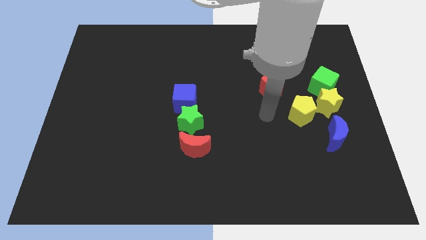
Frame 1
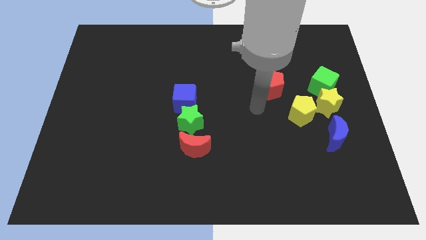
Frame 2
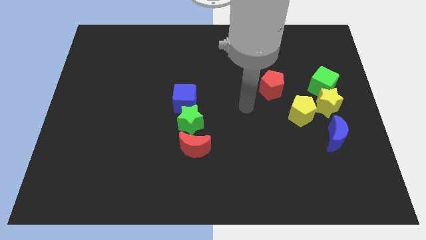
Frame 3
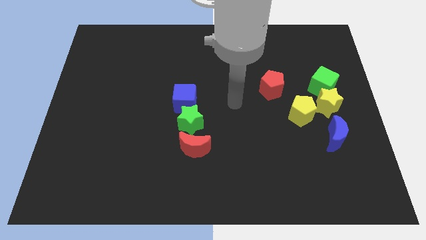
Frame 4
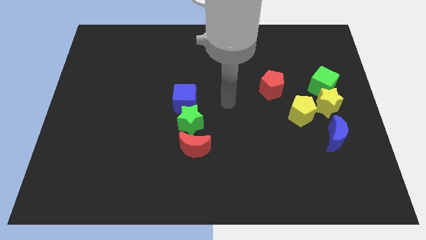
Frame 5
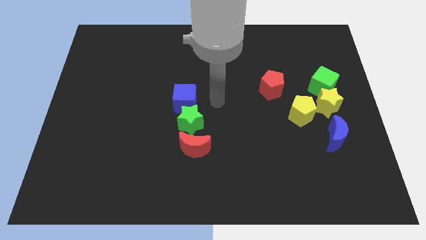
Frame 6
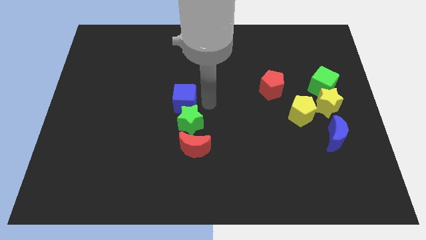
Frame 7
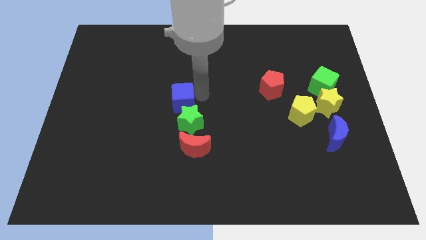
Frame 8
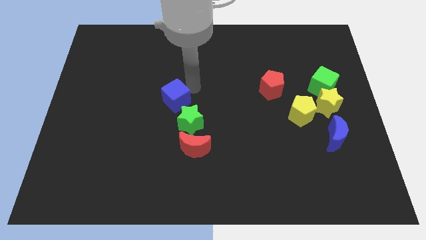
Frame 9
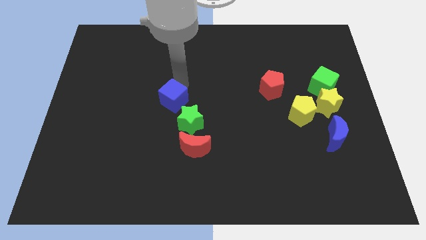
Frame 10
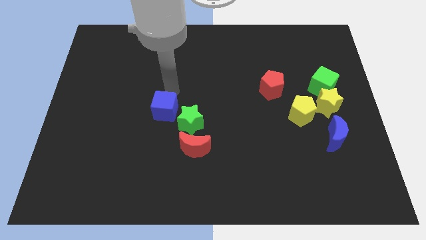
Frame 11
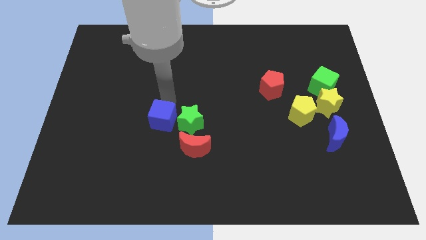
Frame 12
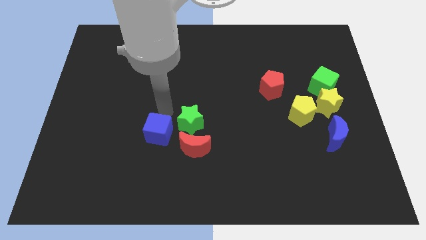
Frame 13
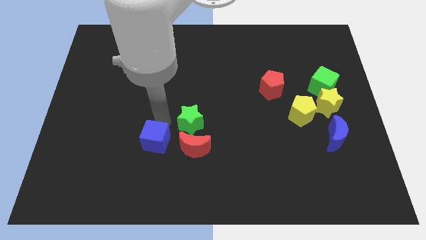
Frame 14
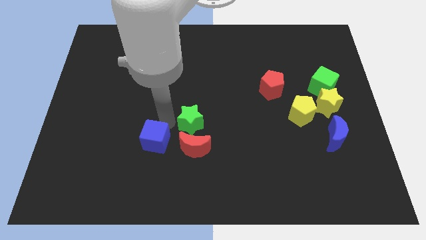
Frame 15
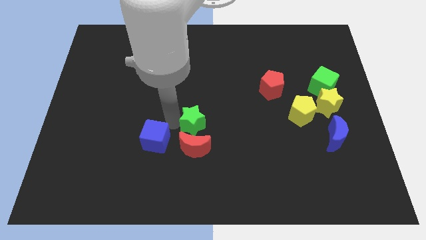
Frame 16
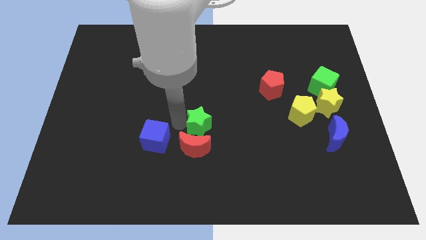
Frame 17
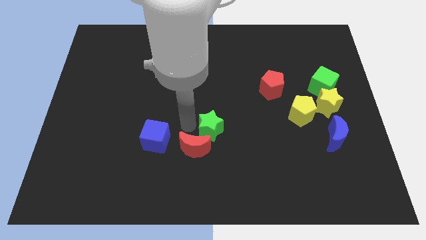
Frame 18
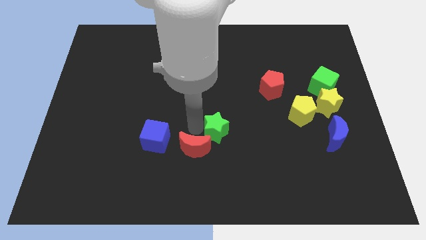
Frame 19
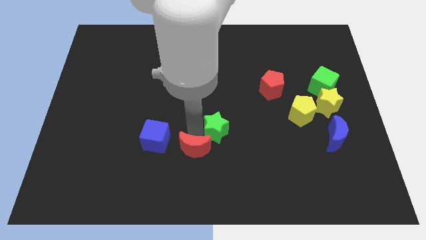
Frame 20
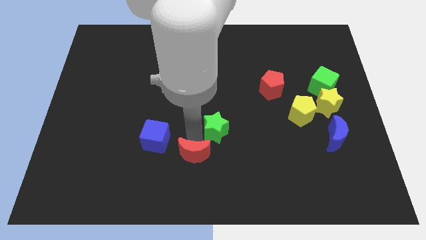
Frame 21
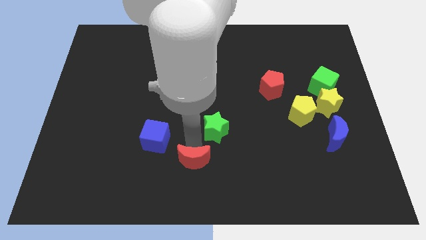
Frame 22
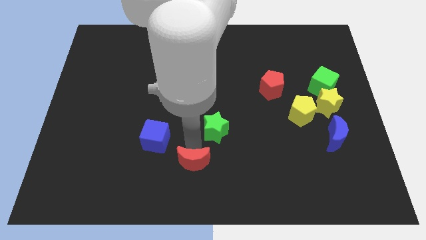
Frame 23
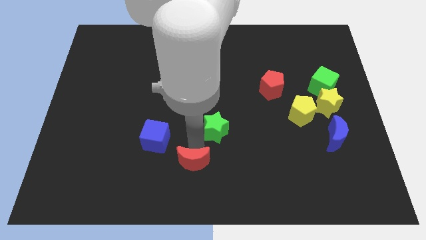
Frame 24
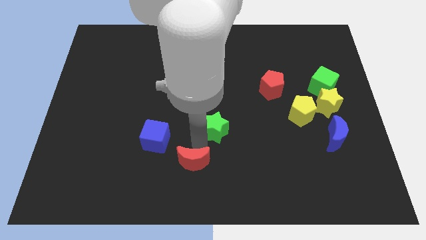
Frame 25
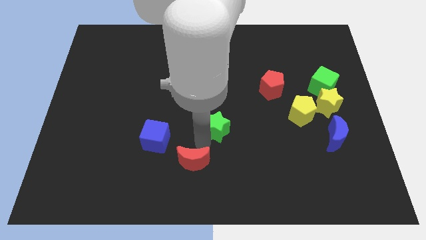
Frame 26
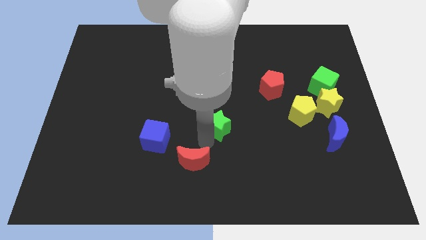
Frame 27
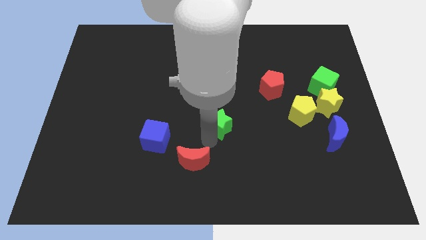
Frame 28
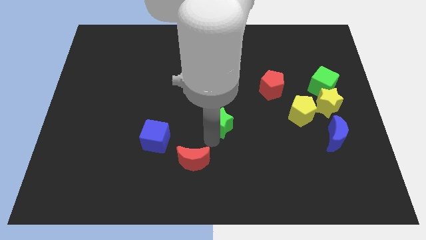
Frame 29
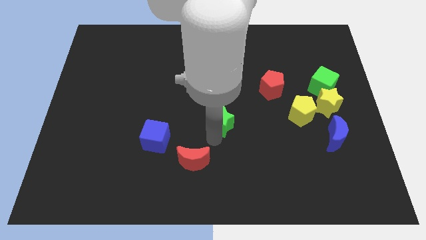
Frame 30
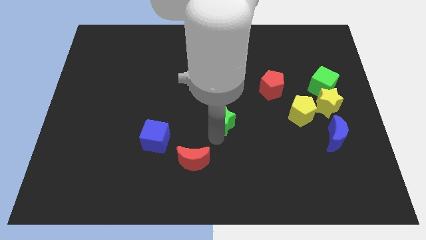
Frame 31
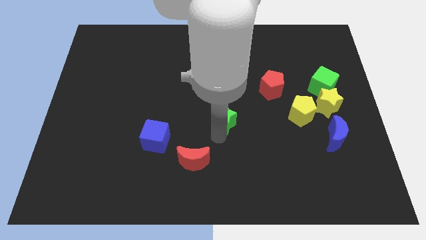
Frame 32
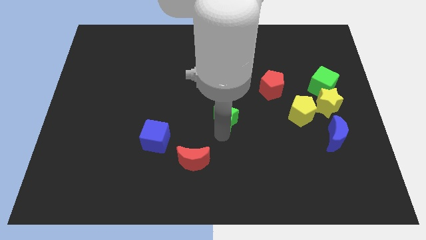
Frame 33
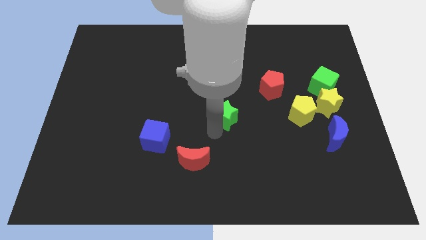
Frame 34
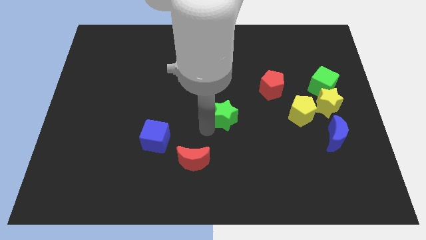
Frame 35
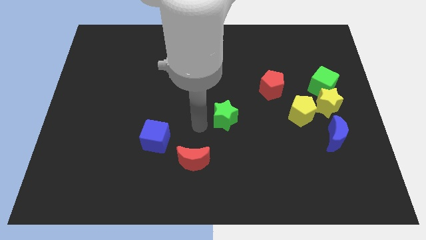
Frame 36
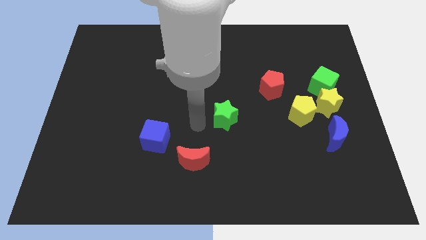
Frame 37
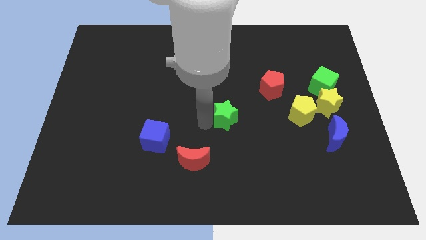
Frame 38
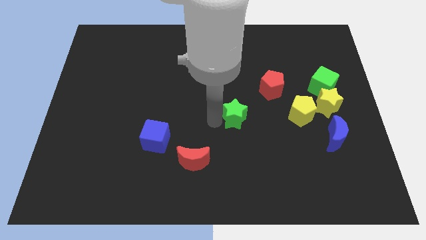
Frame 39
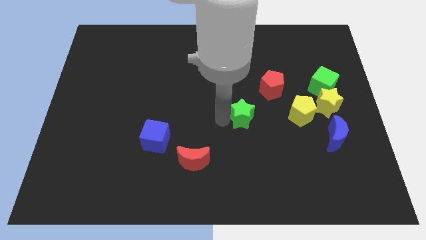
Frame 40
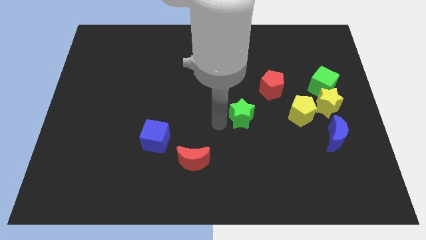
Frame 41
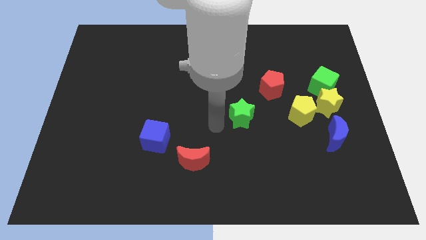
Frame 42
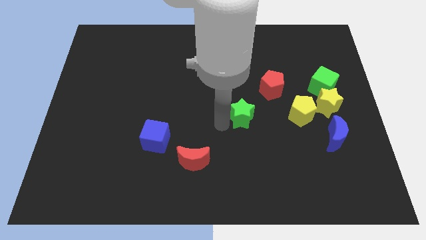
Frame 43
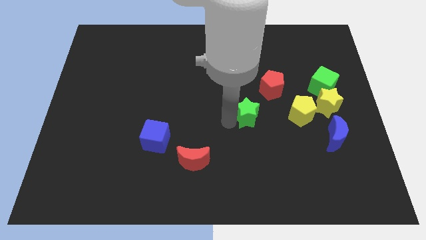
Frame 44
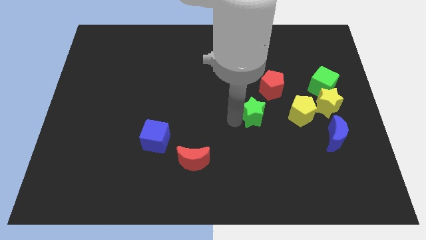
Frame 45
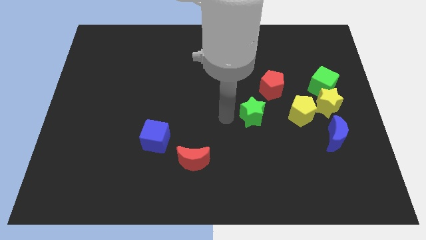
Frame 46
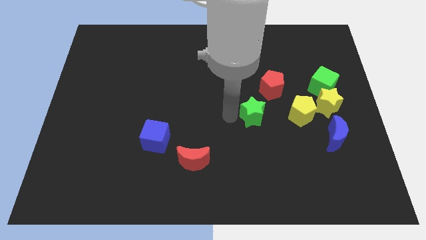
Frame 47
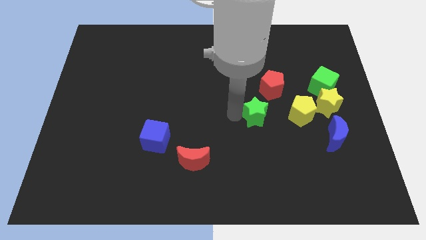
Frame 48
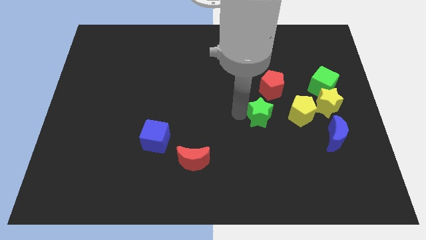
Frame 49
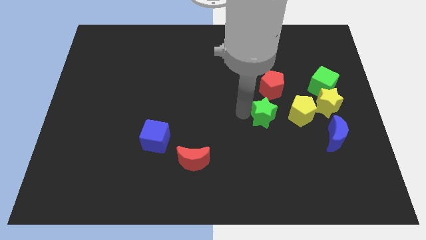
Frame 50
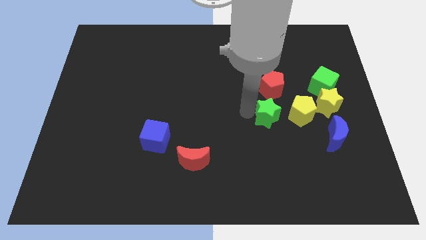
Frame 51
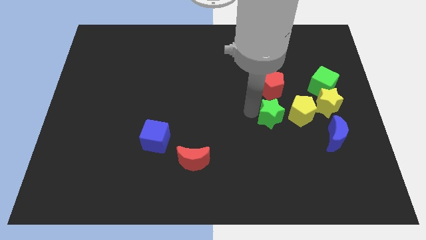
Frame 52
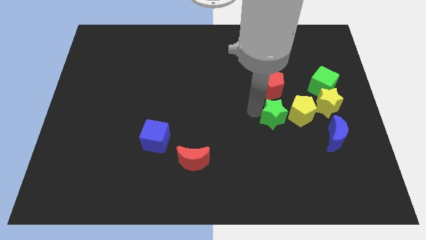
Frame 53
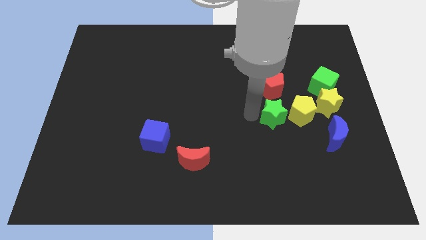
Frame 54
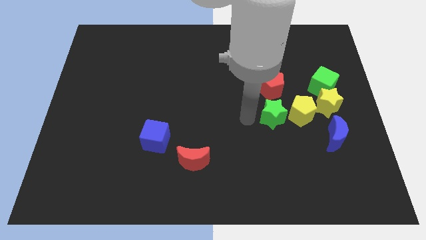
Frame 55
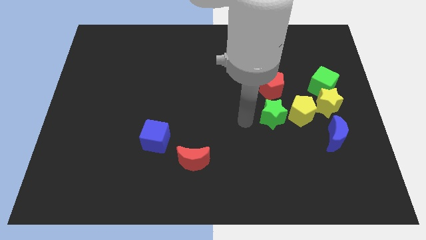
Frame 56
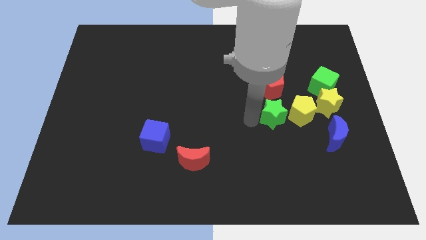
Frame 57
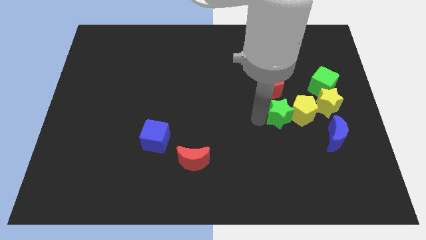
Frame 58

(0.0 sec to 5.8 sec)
move the green star next to the yellow pentagon

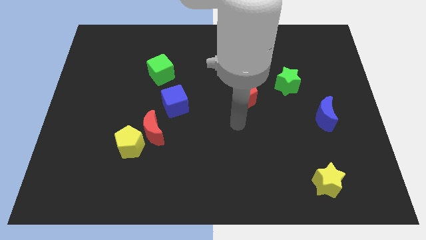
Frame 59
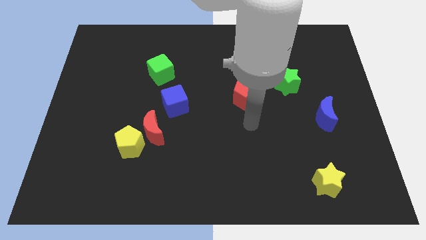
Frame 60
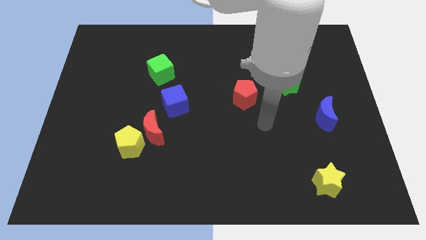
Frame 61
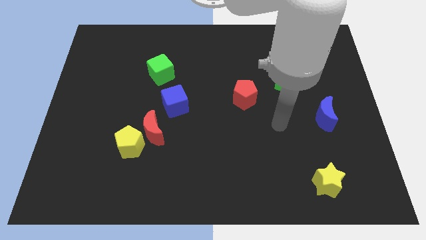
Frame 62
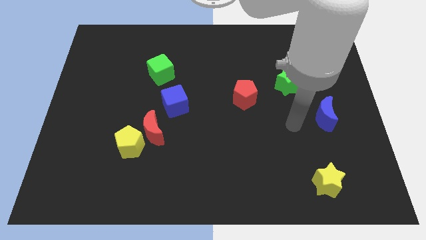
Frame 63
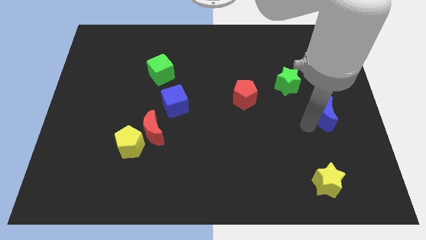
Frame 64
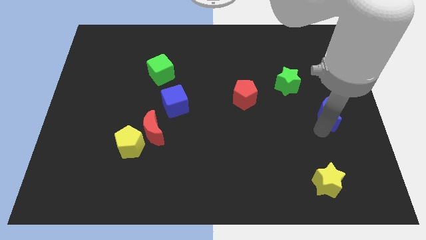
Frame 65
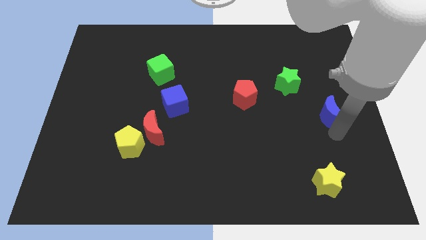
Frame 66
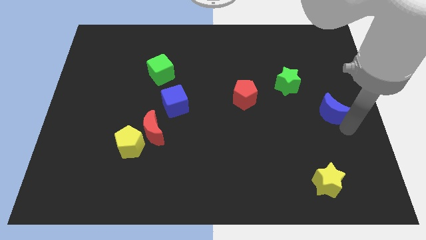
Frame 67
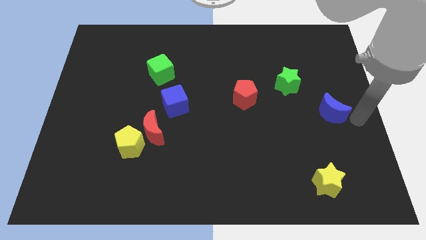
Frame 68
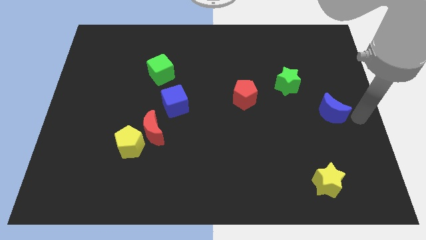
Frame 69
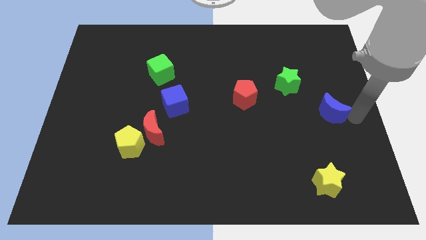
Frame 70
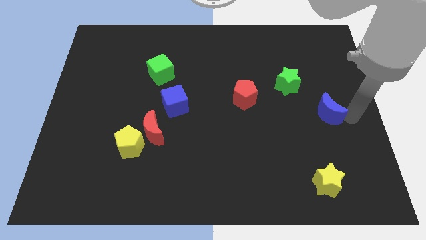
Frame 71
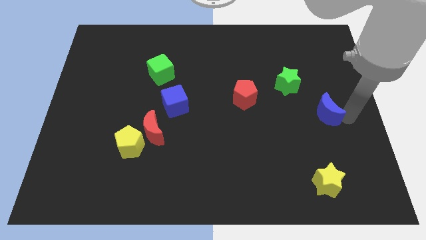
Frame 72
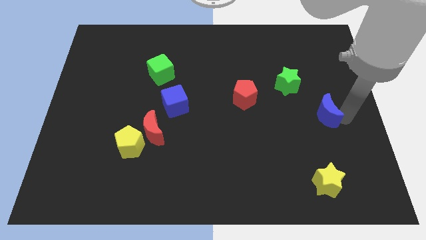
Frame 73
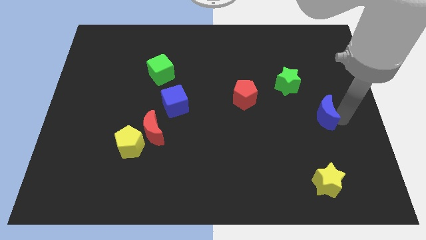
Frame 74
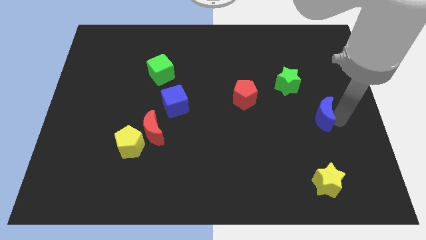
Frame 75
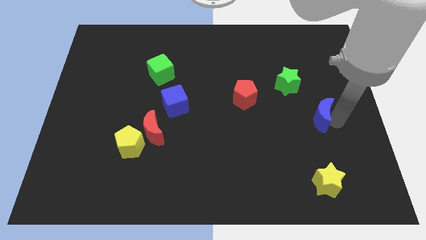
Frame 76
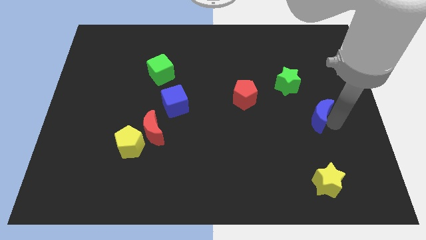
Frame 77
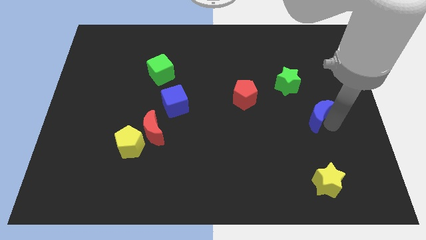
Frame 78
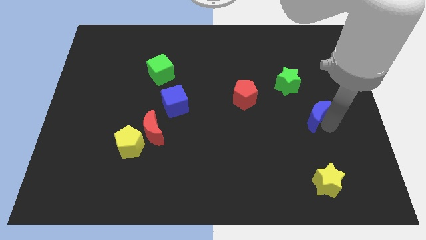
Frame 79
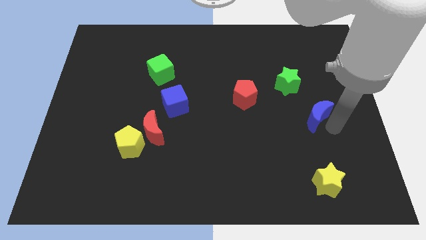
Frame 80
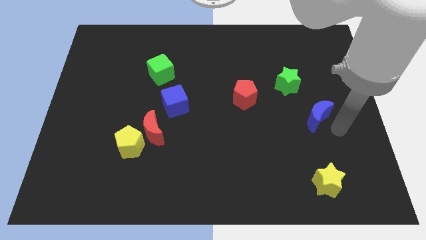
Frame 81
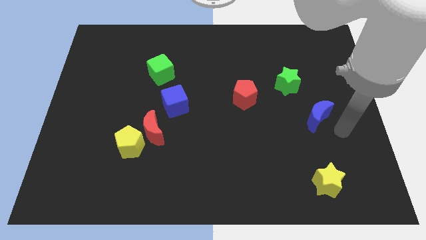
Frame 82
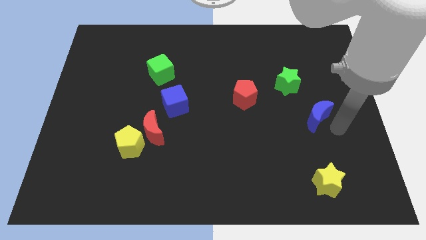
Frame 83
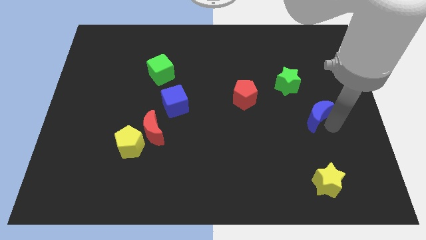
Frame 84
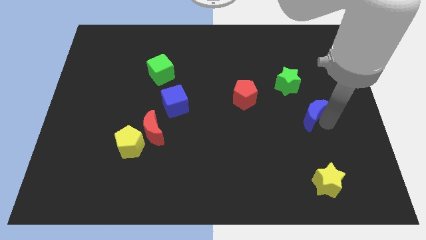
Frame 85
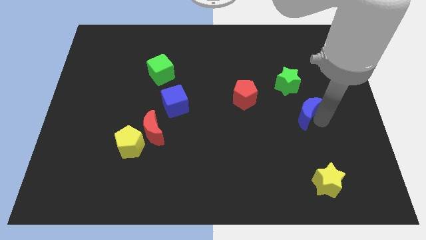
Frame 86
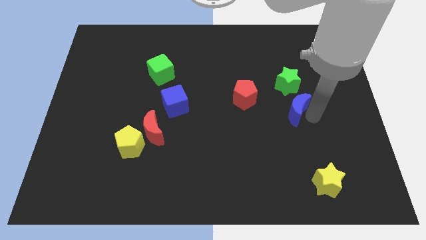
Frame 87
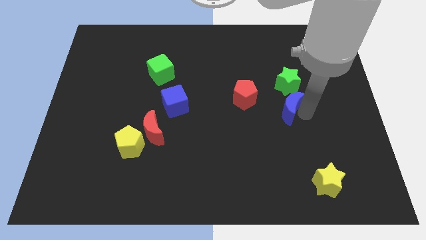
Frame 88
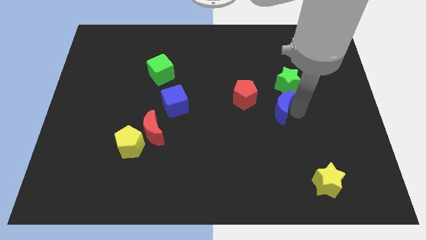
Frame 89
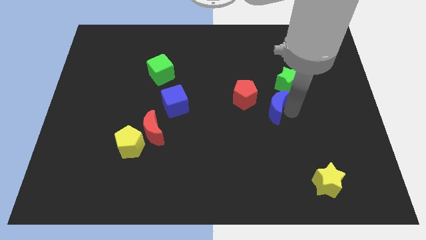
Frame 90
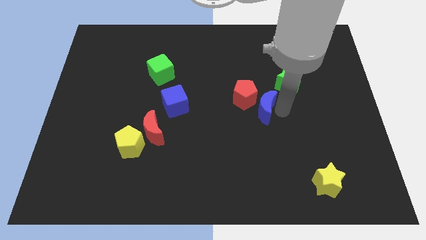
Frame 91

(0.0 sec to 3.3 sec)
put the blue moon to the red pentagon
